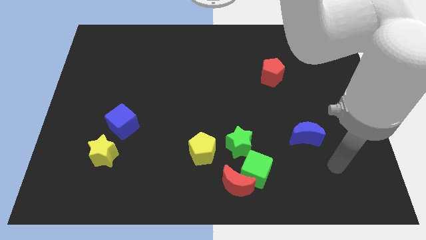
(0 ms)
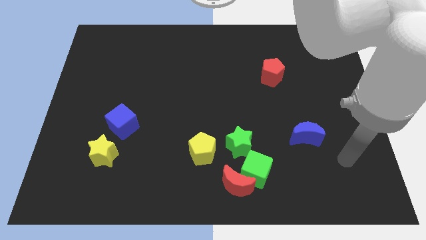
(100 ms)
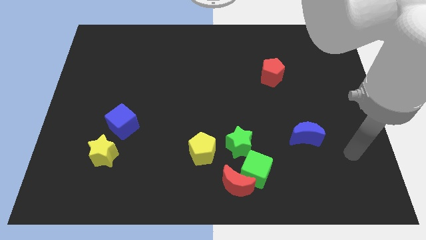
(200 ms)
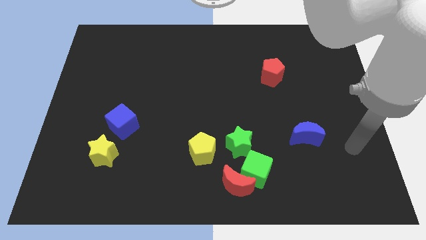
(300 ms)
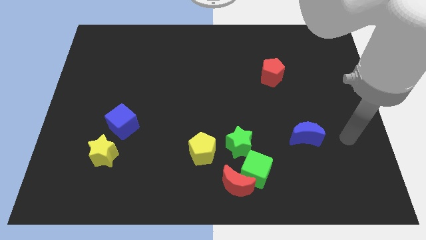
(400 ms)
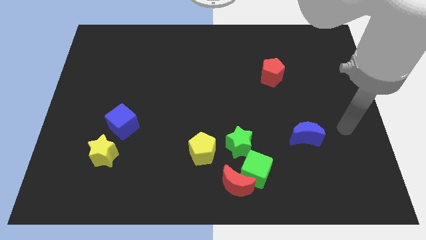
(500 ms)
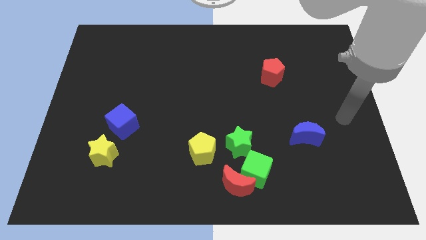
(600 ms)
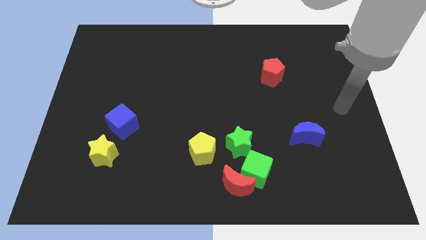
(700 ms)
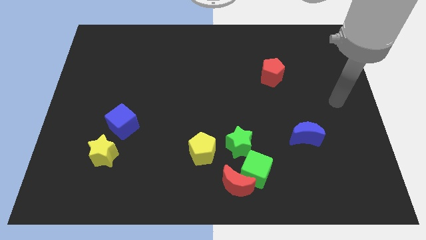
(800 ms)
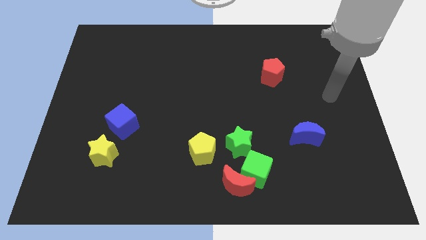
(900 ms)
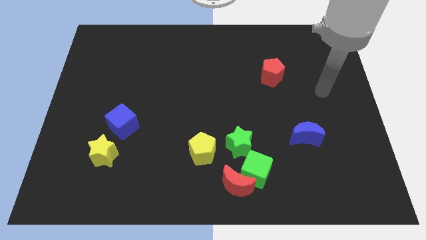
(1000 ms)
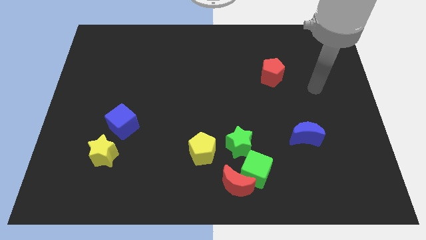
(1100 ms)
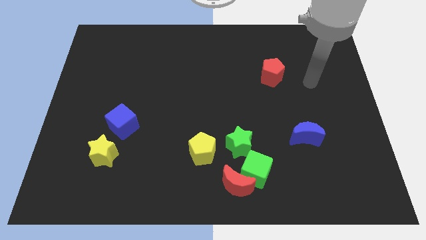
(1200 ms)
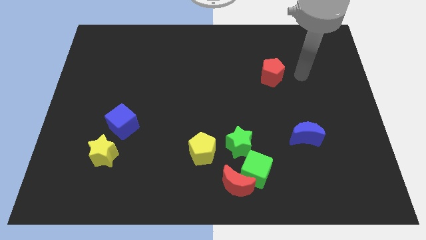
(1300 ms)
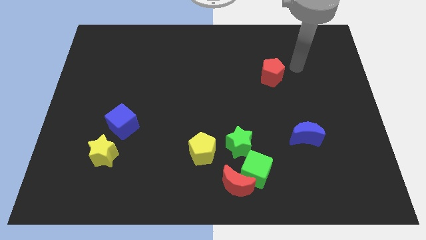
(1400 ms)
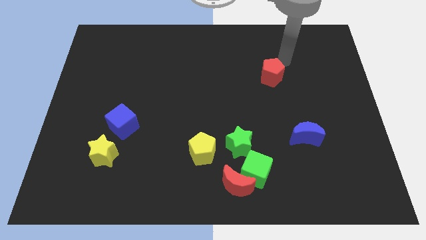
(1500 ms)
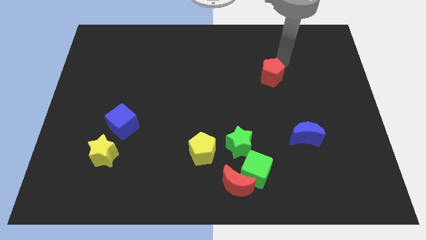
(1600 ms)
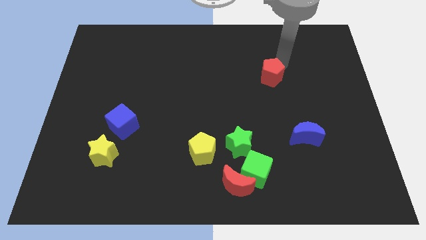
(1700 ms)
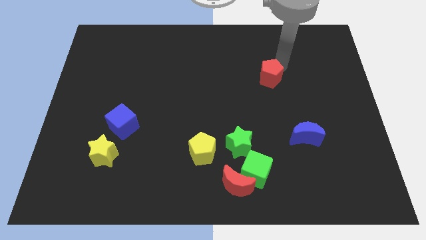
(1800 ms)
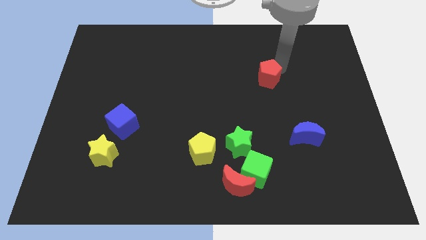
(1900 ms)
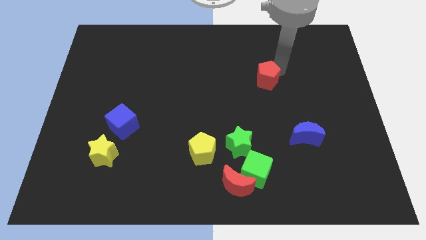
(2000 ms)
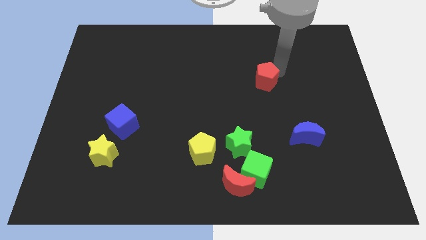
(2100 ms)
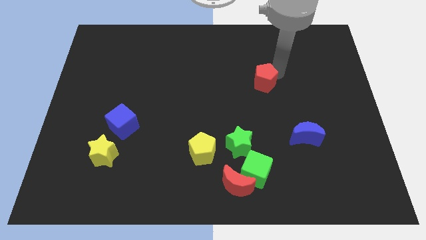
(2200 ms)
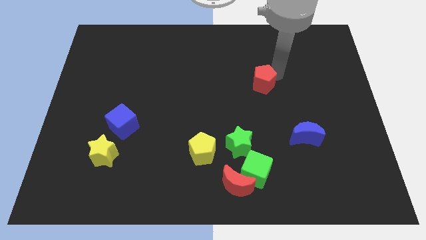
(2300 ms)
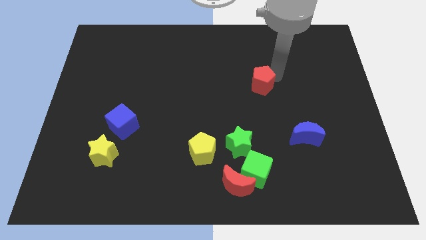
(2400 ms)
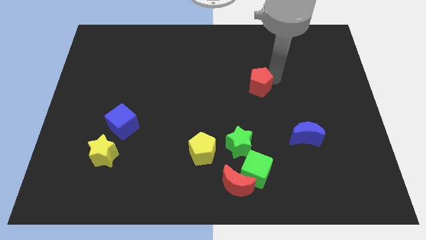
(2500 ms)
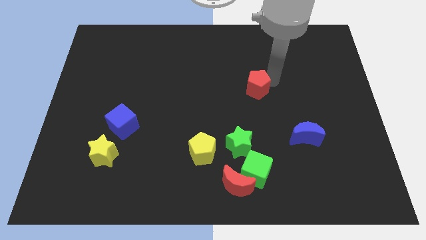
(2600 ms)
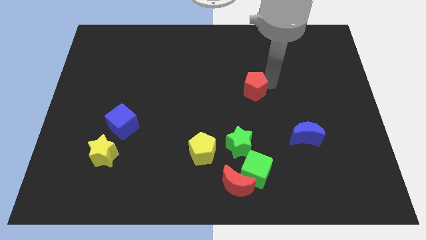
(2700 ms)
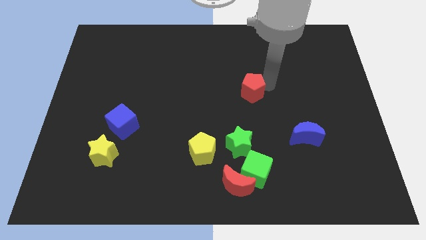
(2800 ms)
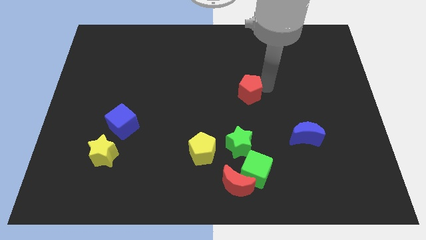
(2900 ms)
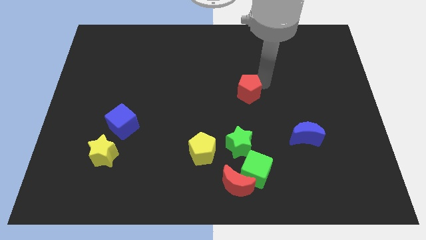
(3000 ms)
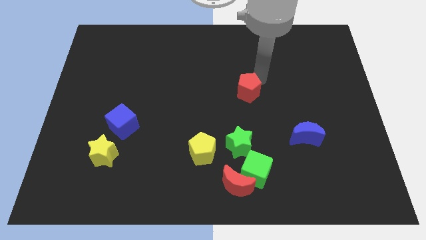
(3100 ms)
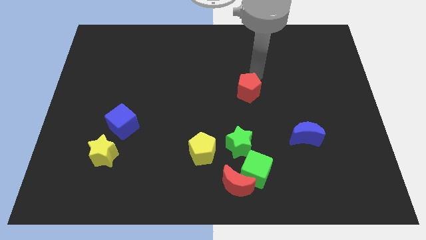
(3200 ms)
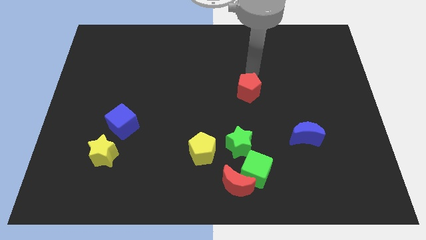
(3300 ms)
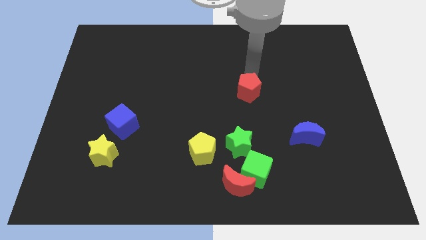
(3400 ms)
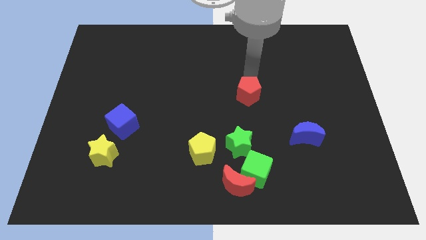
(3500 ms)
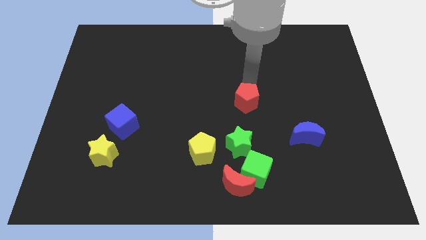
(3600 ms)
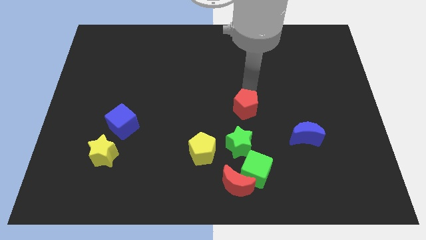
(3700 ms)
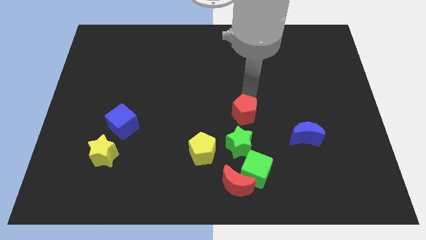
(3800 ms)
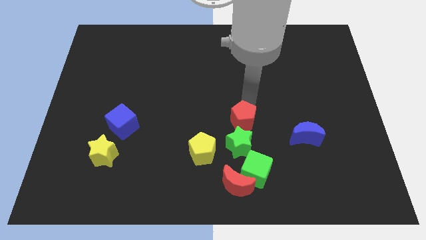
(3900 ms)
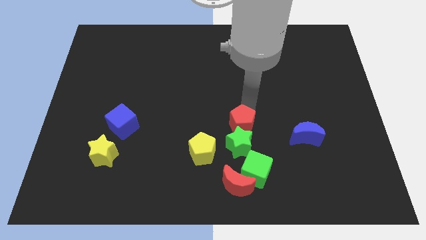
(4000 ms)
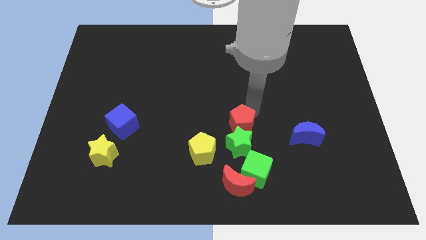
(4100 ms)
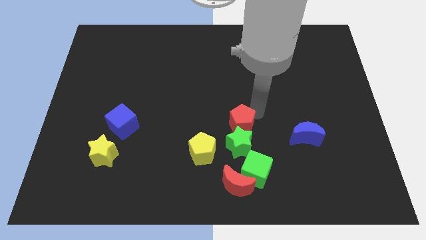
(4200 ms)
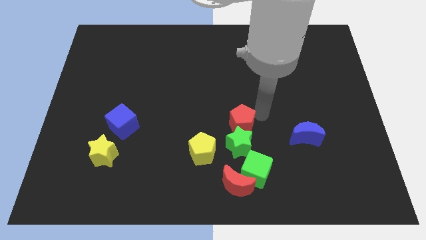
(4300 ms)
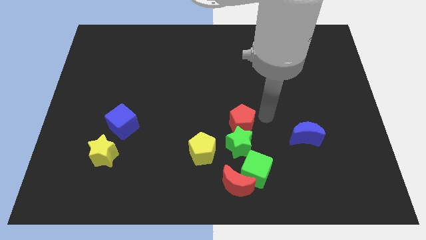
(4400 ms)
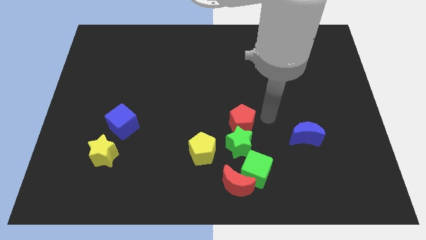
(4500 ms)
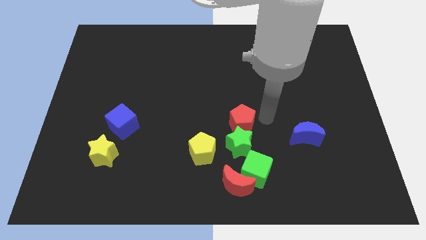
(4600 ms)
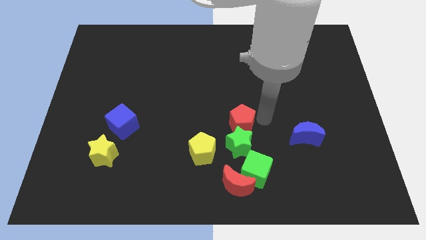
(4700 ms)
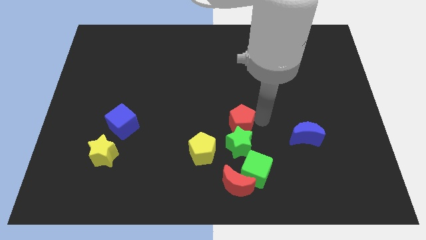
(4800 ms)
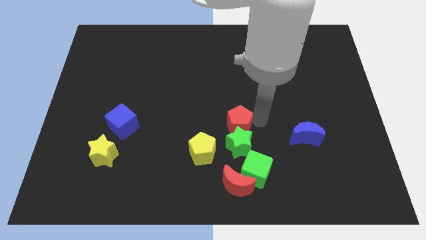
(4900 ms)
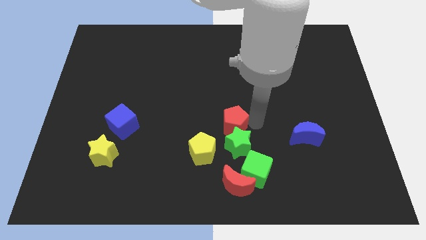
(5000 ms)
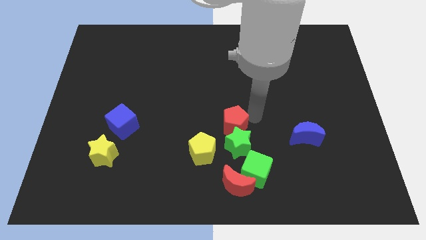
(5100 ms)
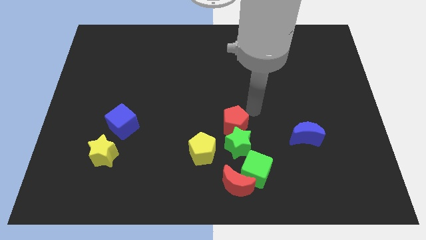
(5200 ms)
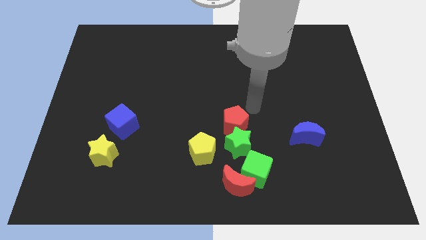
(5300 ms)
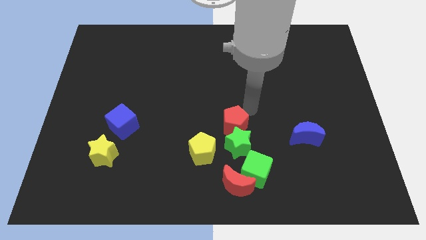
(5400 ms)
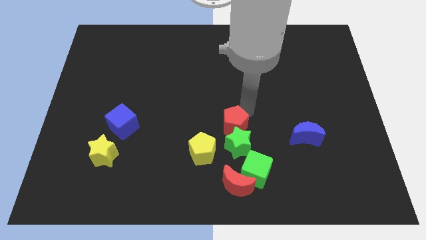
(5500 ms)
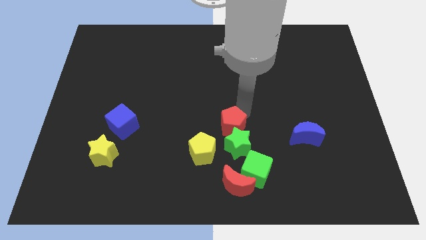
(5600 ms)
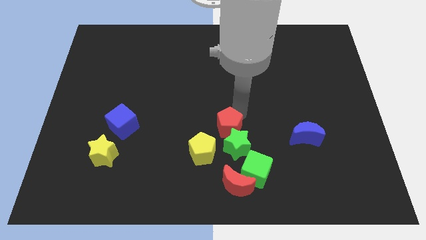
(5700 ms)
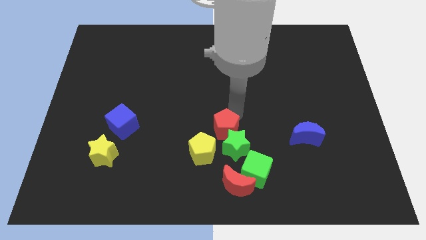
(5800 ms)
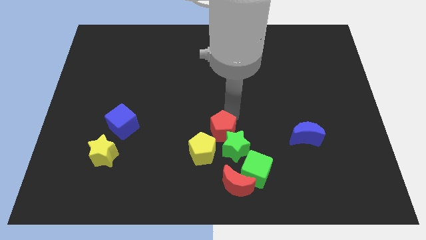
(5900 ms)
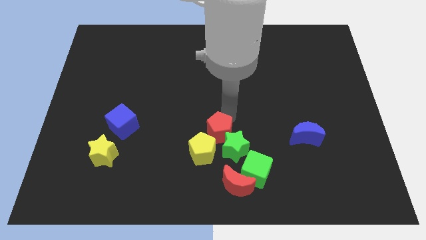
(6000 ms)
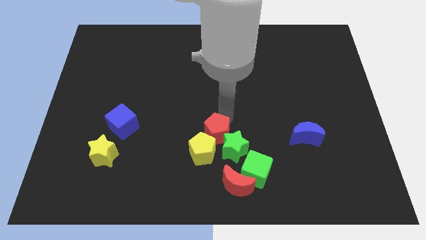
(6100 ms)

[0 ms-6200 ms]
move the red pentagon close to the yellow pentagon

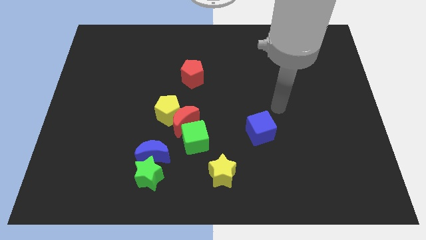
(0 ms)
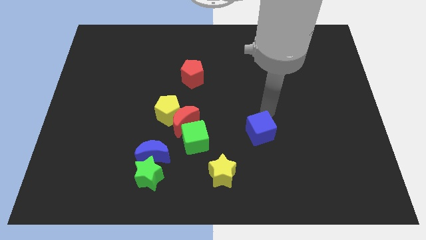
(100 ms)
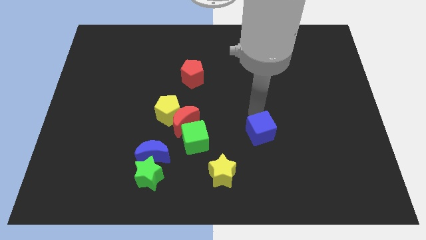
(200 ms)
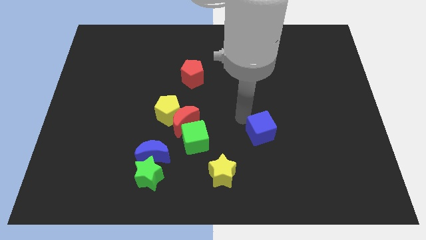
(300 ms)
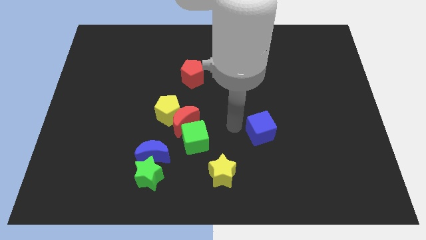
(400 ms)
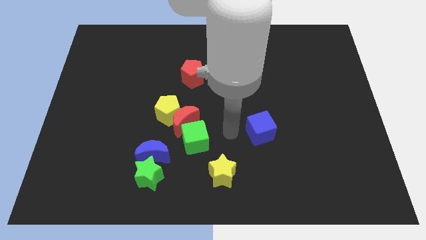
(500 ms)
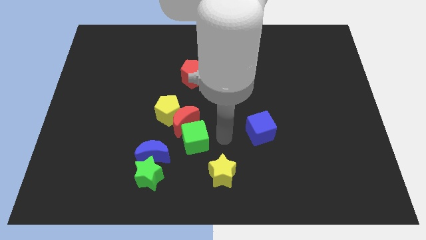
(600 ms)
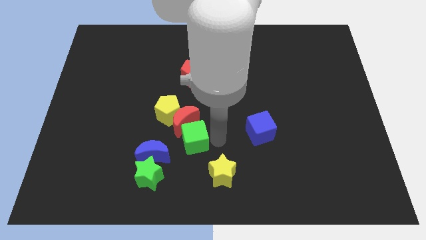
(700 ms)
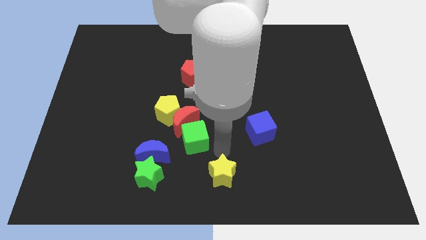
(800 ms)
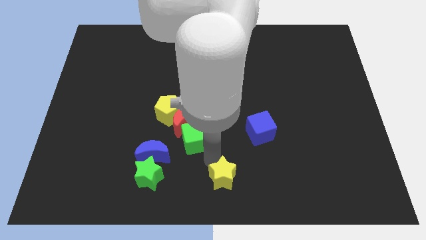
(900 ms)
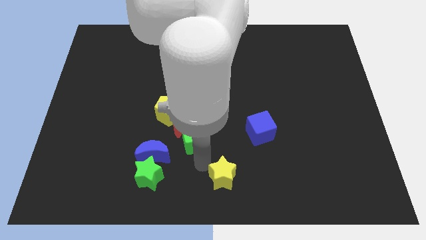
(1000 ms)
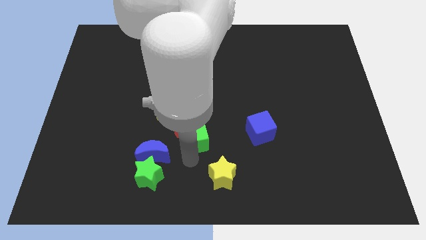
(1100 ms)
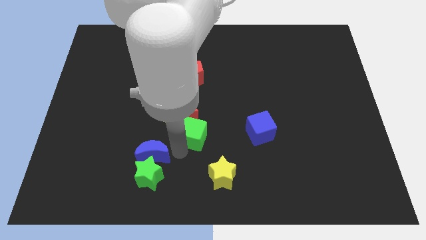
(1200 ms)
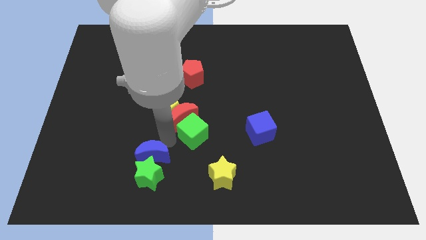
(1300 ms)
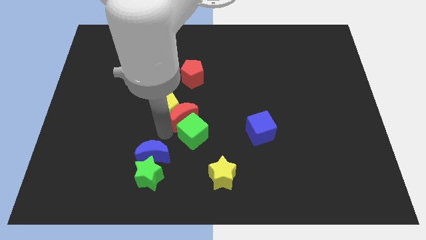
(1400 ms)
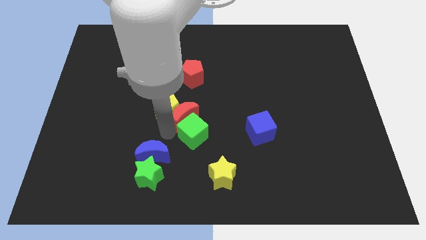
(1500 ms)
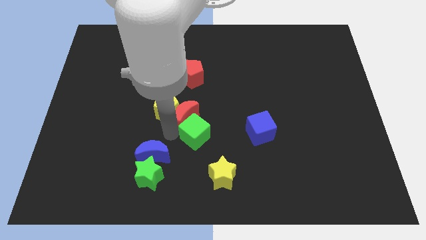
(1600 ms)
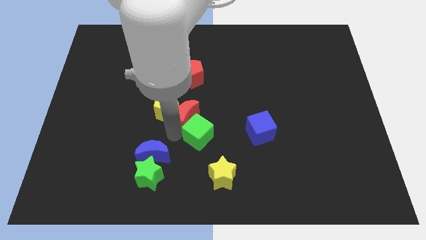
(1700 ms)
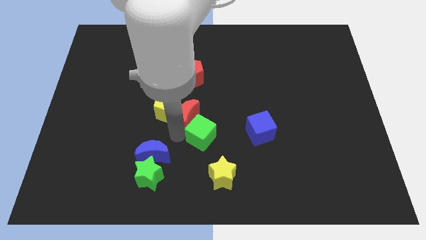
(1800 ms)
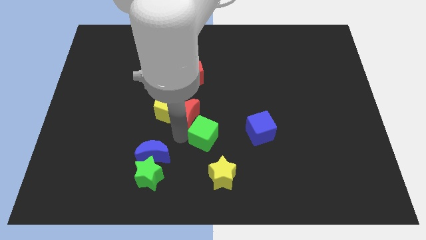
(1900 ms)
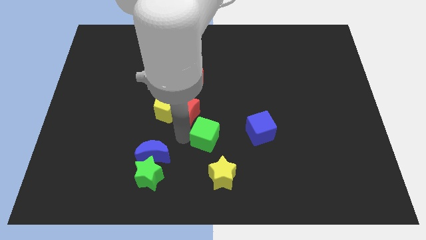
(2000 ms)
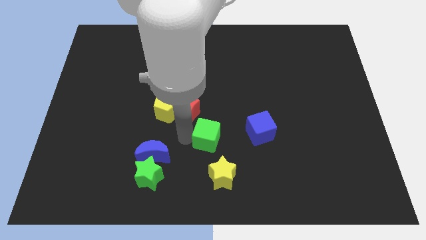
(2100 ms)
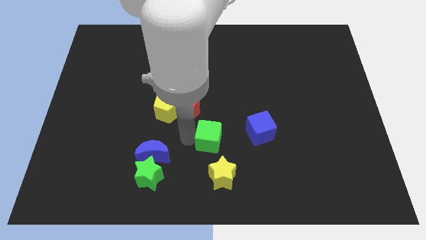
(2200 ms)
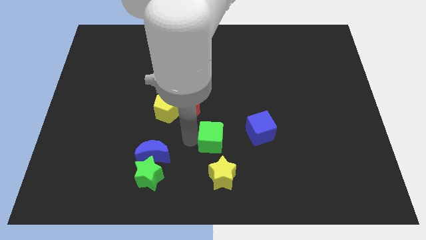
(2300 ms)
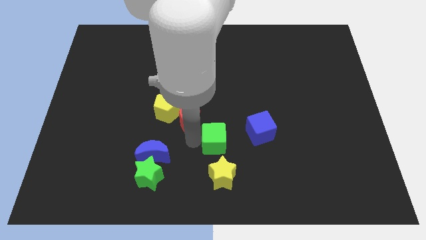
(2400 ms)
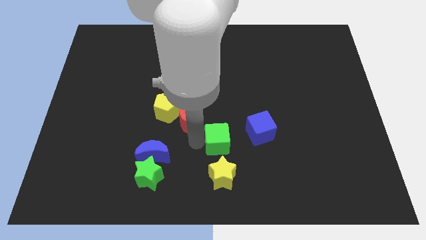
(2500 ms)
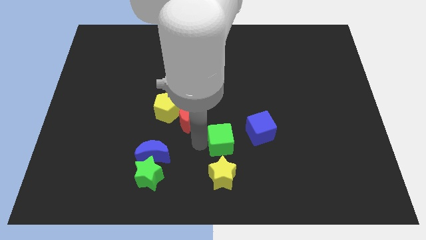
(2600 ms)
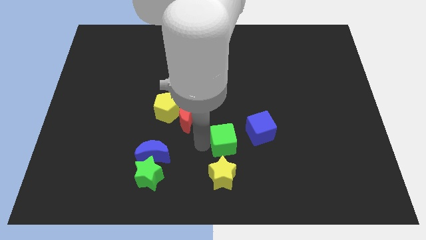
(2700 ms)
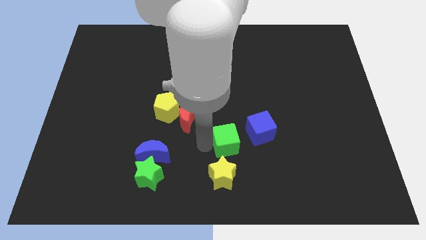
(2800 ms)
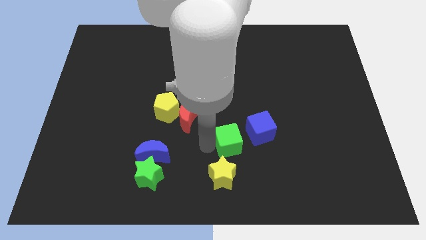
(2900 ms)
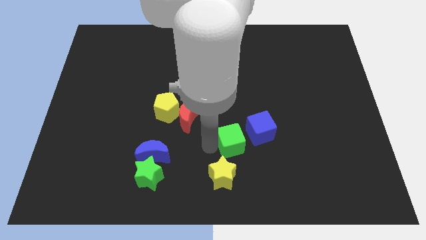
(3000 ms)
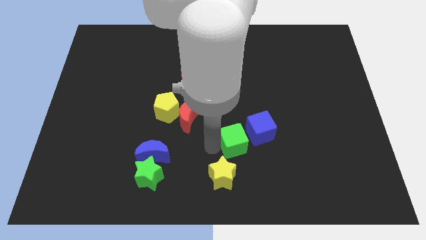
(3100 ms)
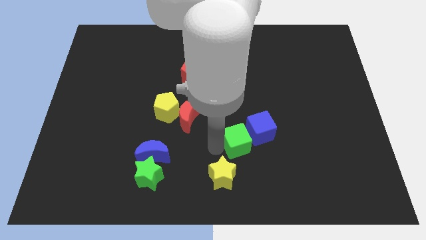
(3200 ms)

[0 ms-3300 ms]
put the green cube towards the blue cube
